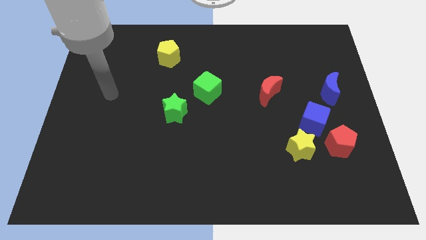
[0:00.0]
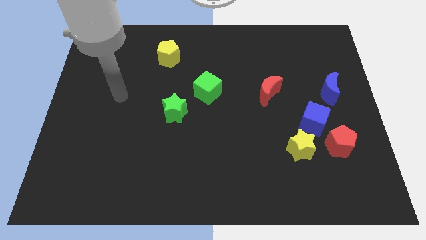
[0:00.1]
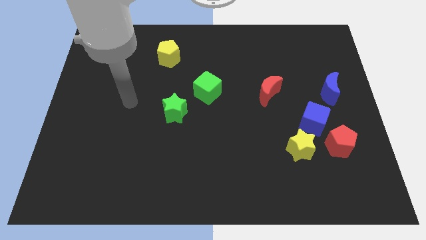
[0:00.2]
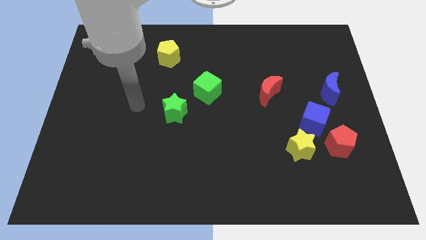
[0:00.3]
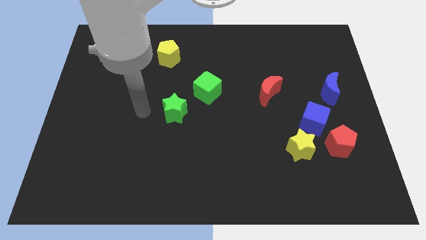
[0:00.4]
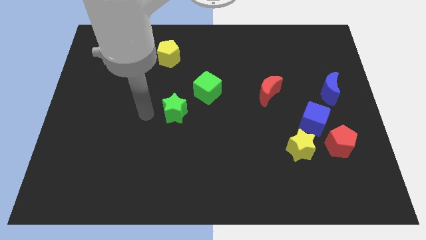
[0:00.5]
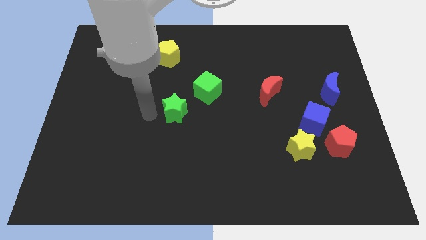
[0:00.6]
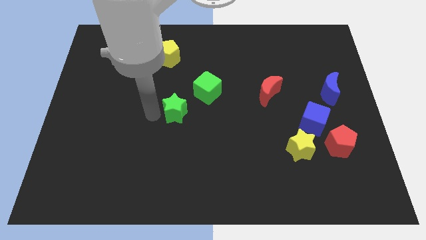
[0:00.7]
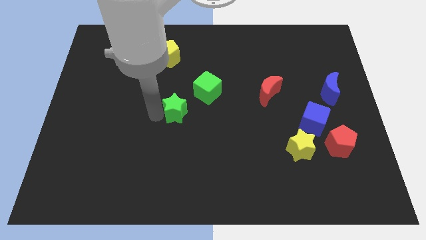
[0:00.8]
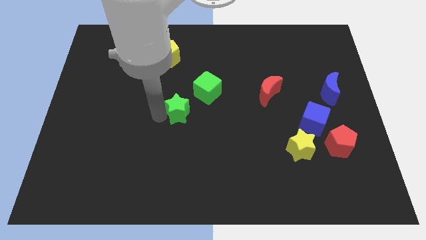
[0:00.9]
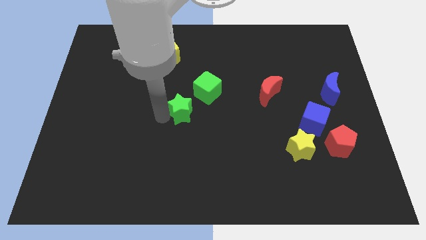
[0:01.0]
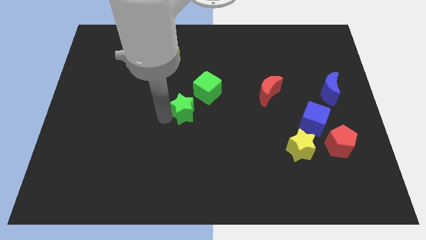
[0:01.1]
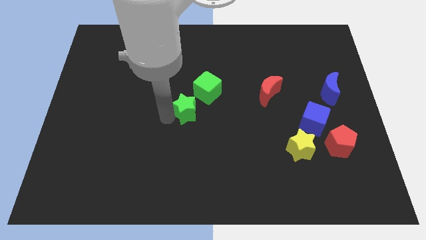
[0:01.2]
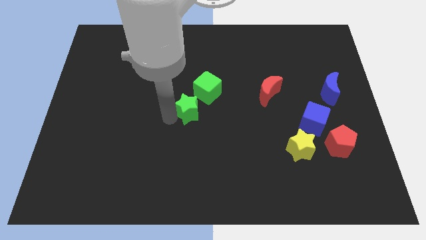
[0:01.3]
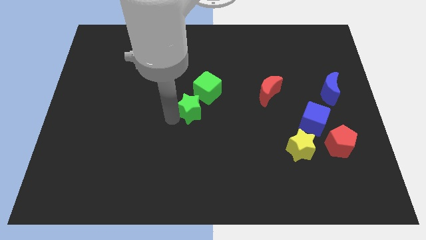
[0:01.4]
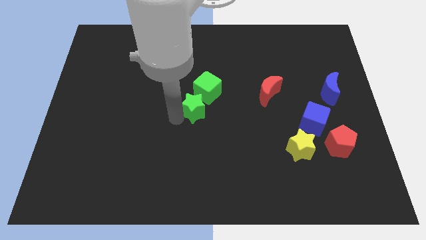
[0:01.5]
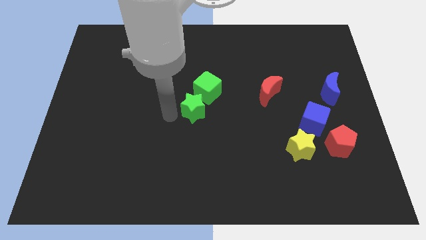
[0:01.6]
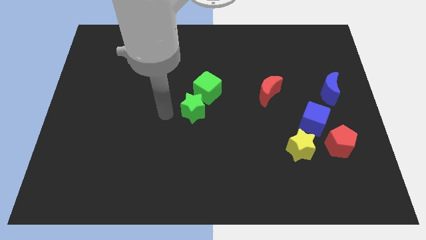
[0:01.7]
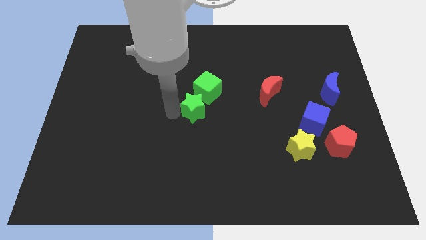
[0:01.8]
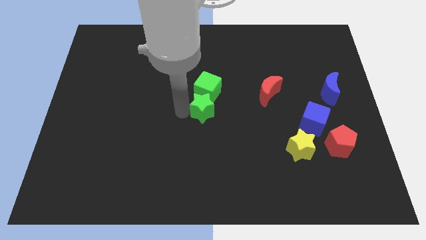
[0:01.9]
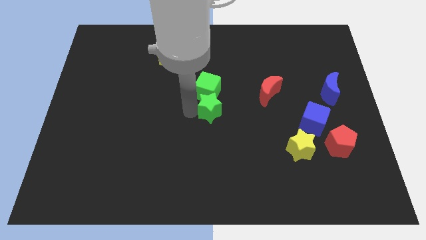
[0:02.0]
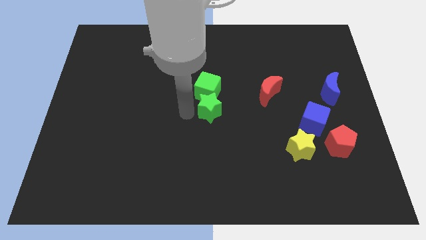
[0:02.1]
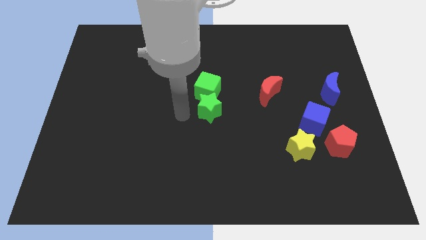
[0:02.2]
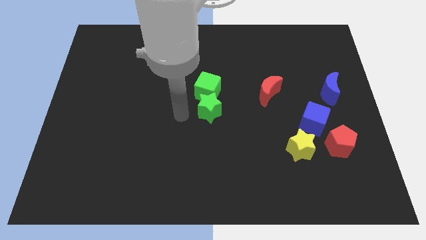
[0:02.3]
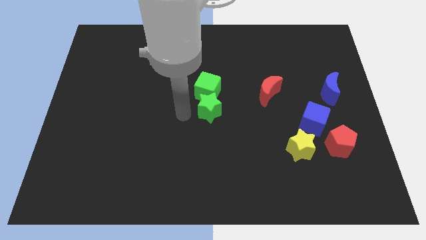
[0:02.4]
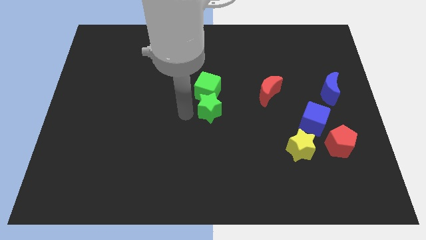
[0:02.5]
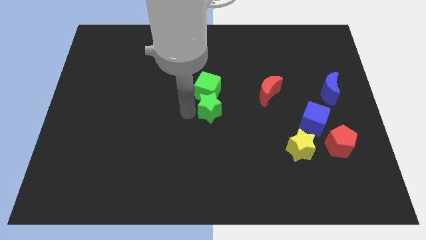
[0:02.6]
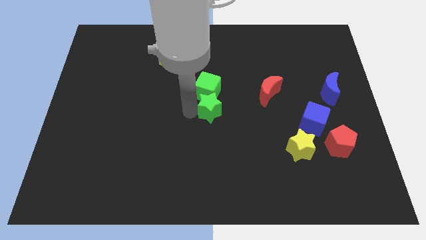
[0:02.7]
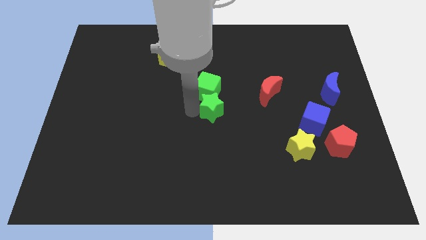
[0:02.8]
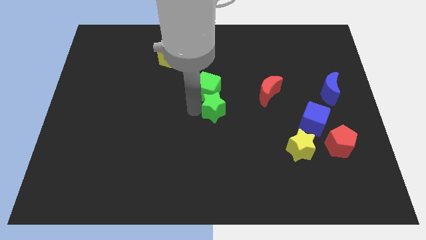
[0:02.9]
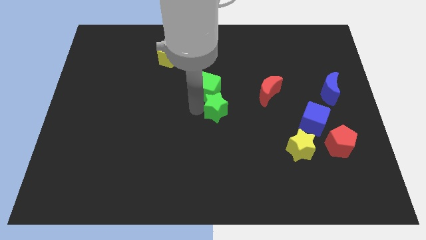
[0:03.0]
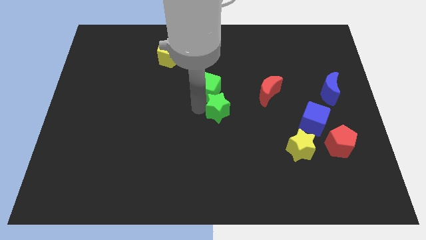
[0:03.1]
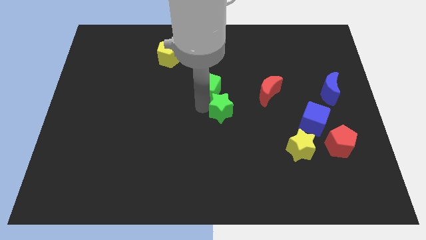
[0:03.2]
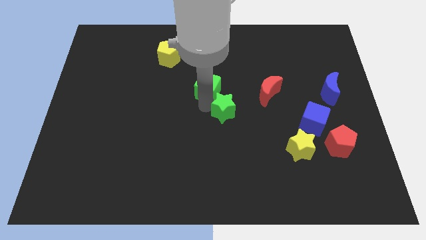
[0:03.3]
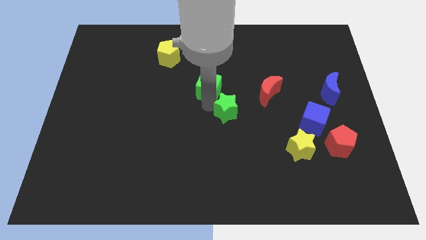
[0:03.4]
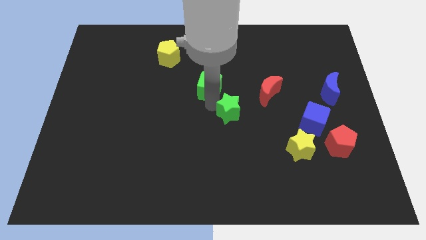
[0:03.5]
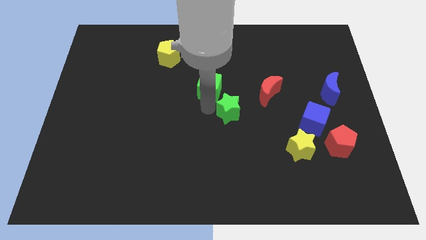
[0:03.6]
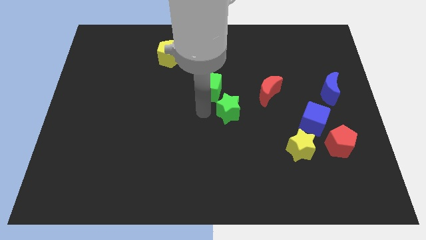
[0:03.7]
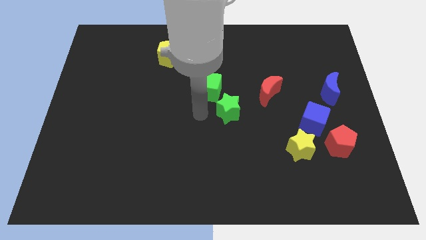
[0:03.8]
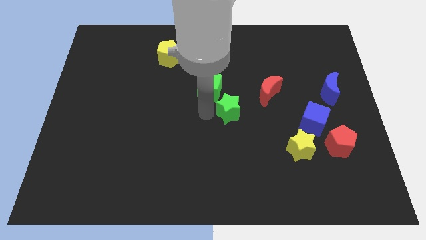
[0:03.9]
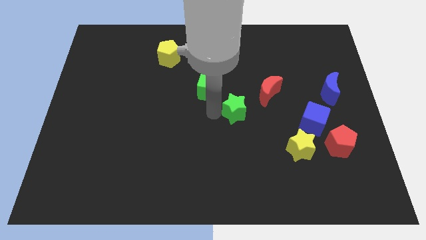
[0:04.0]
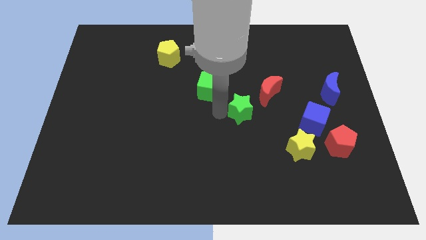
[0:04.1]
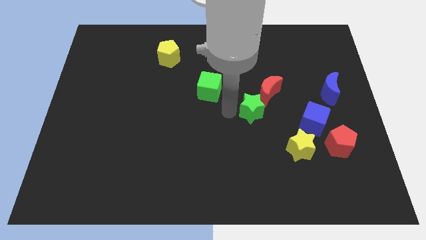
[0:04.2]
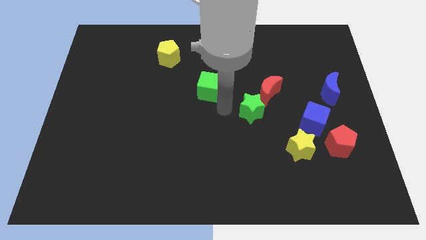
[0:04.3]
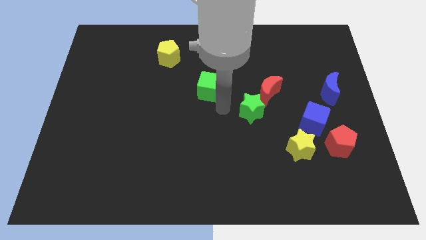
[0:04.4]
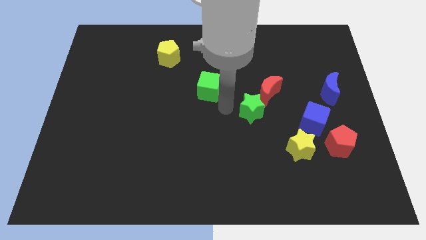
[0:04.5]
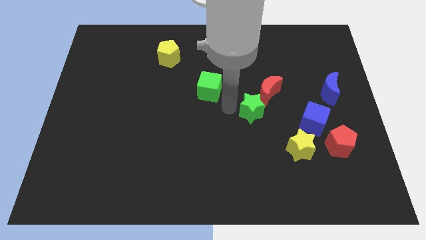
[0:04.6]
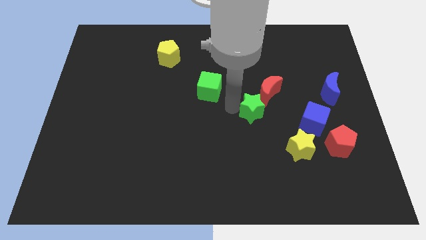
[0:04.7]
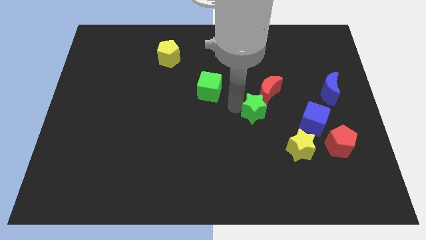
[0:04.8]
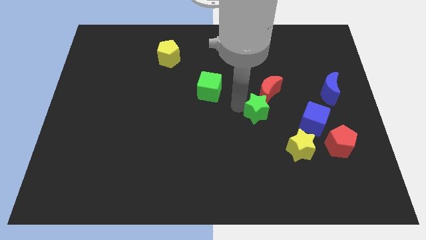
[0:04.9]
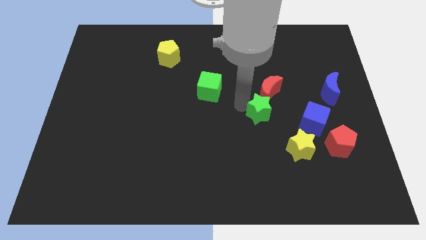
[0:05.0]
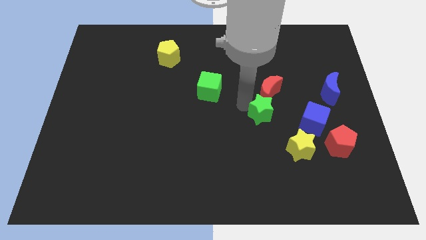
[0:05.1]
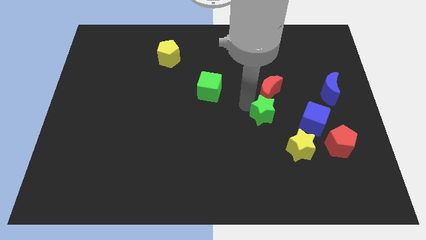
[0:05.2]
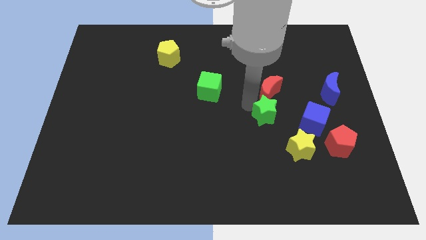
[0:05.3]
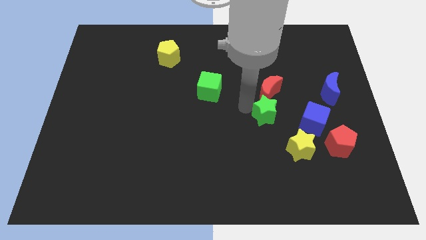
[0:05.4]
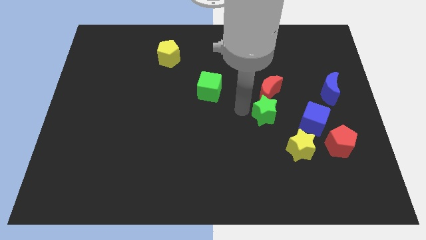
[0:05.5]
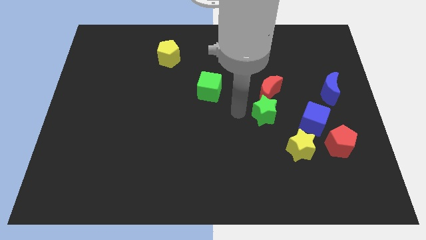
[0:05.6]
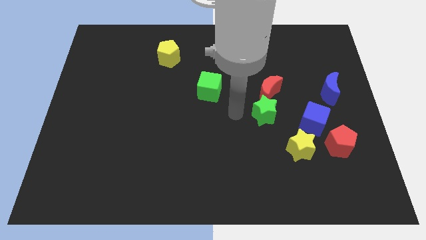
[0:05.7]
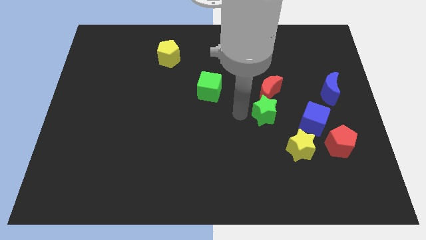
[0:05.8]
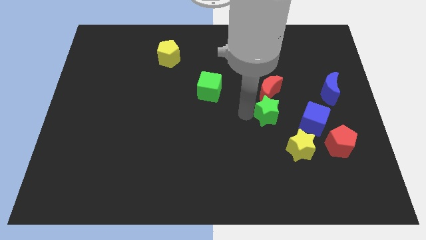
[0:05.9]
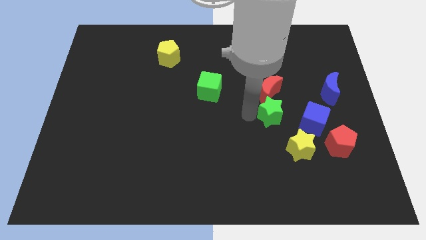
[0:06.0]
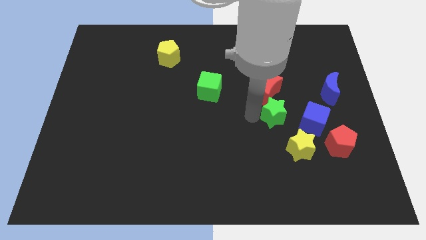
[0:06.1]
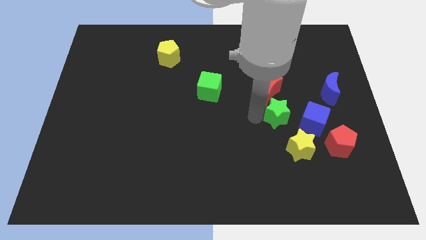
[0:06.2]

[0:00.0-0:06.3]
push the green star to the top left of the blue cube

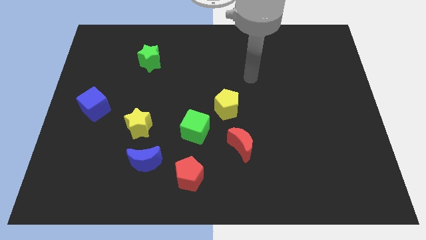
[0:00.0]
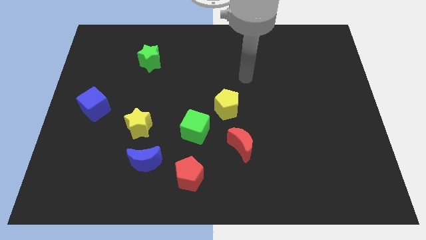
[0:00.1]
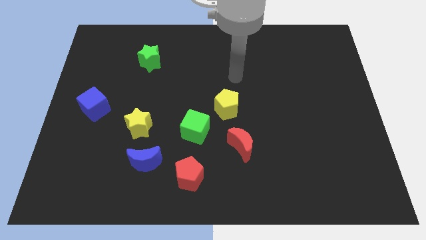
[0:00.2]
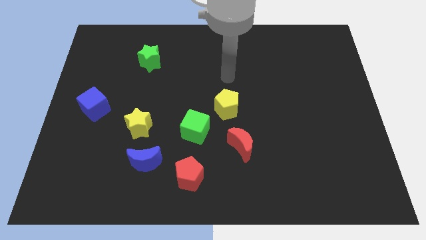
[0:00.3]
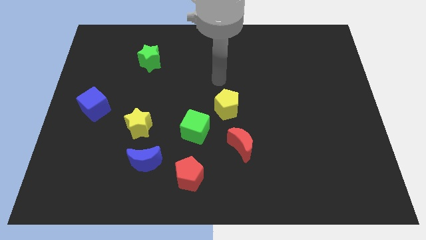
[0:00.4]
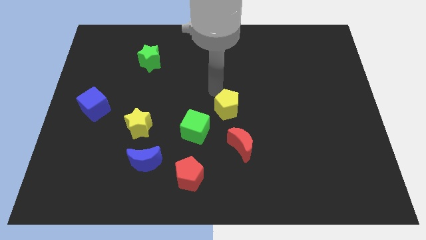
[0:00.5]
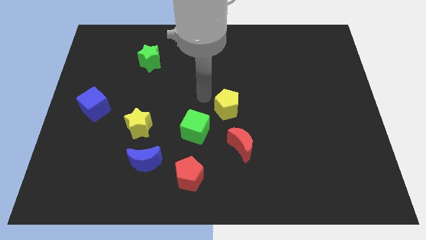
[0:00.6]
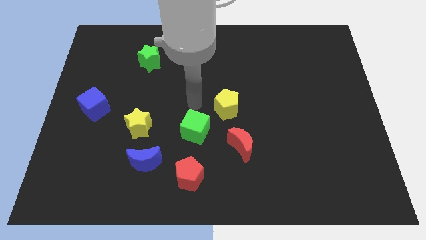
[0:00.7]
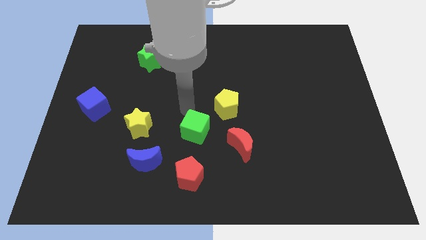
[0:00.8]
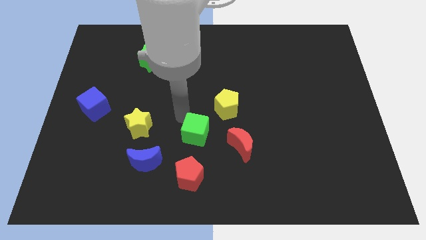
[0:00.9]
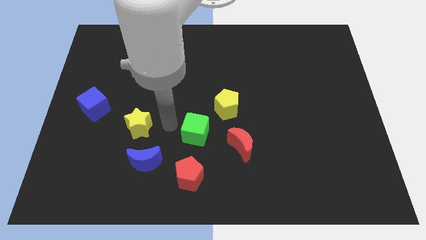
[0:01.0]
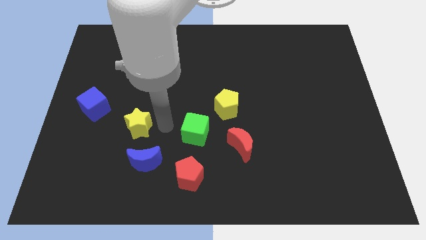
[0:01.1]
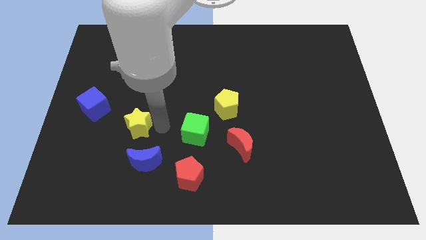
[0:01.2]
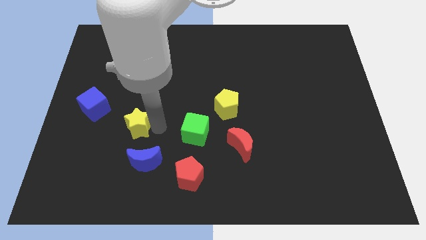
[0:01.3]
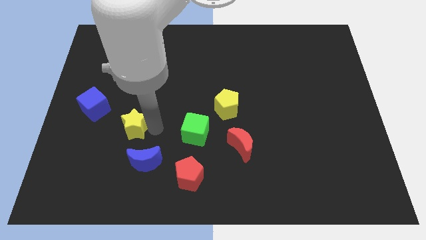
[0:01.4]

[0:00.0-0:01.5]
put the yellow star to the bottom right side of the blue cube
